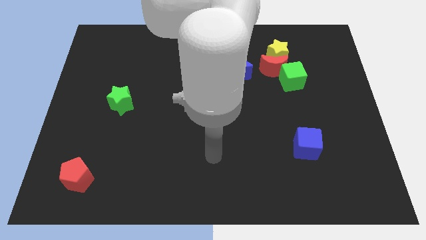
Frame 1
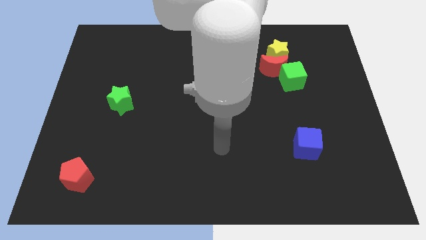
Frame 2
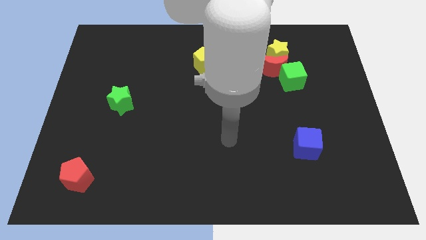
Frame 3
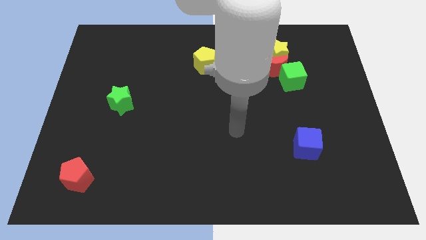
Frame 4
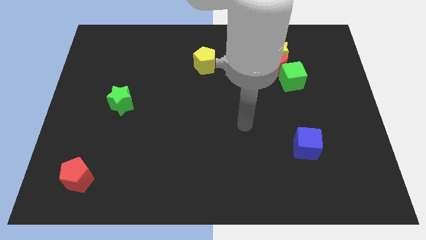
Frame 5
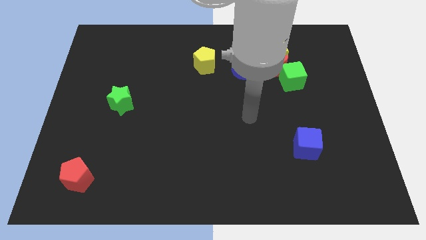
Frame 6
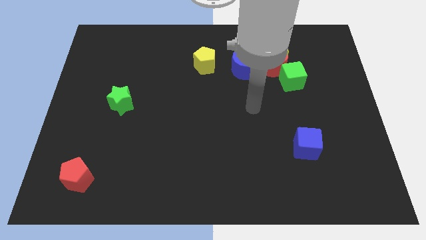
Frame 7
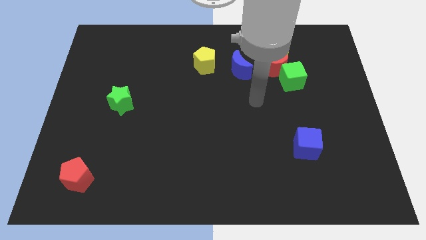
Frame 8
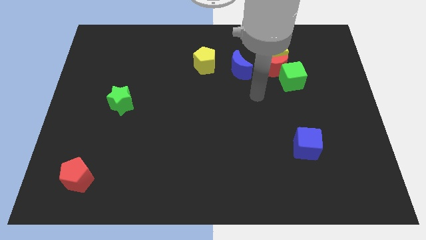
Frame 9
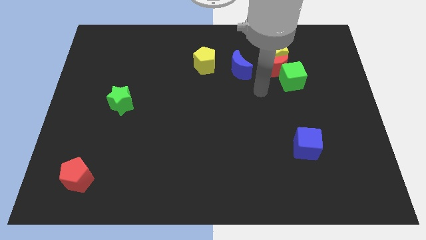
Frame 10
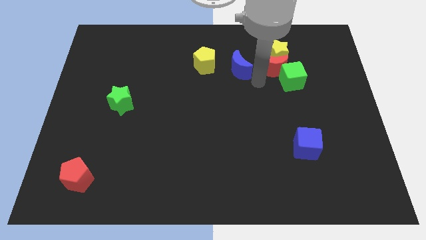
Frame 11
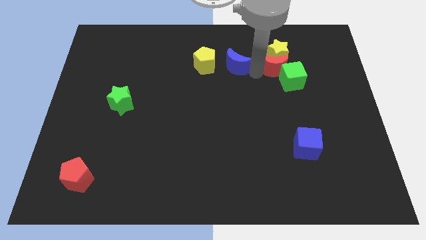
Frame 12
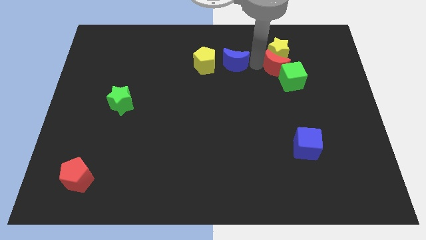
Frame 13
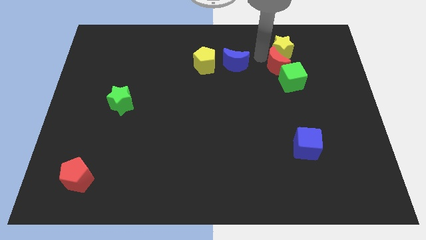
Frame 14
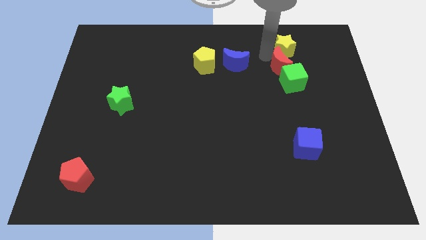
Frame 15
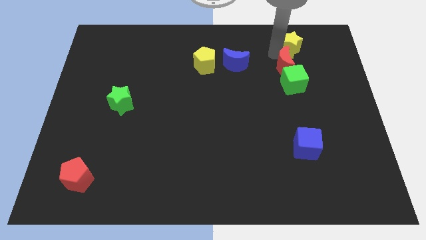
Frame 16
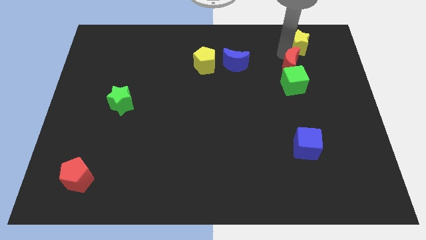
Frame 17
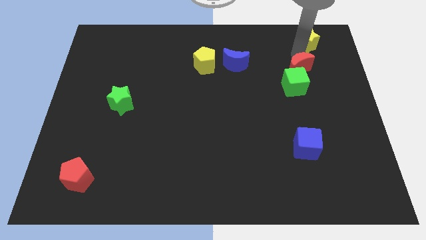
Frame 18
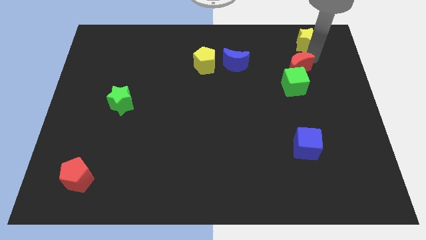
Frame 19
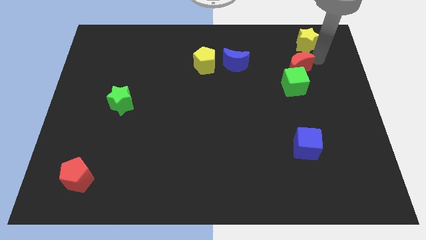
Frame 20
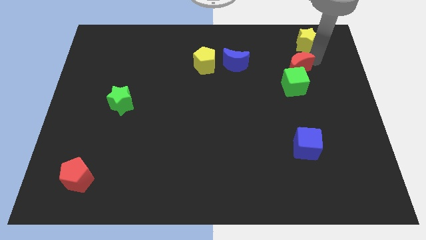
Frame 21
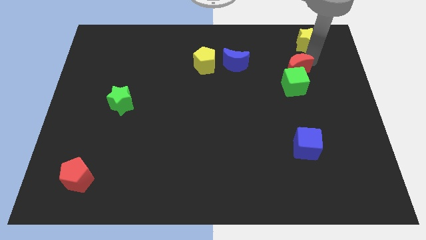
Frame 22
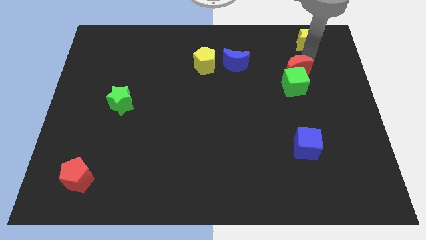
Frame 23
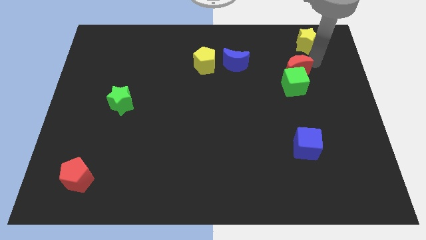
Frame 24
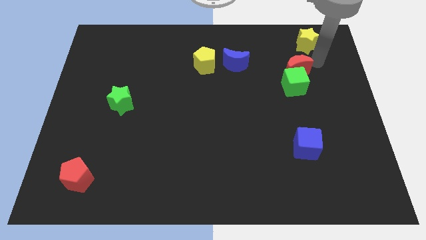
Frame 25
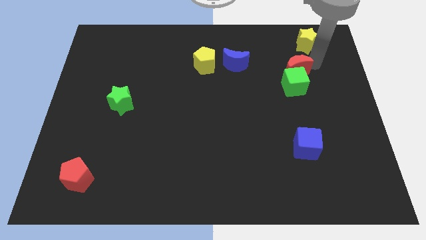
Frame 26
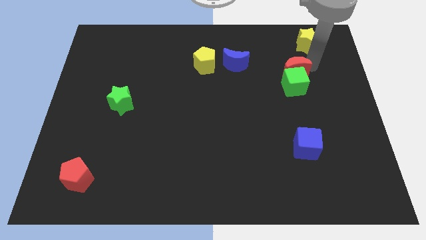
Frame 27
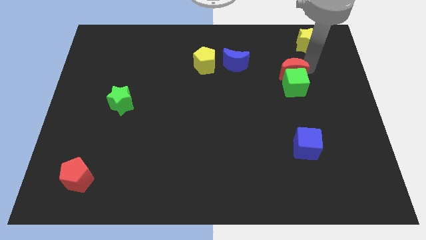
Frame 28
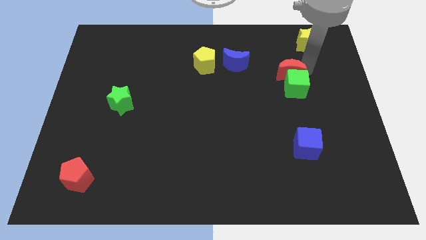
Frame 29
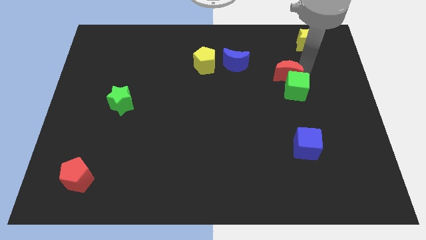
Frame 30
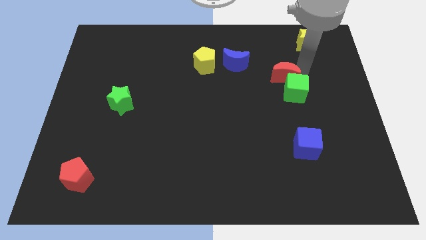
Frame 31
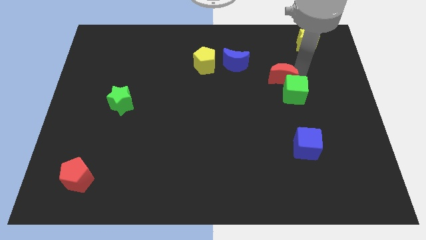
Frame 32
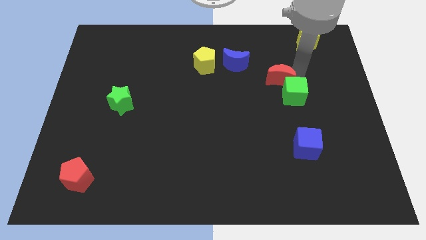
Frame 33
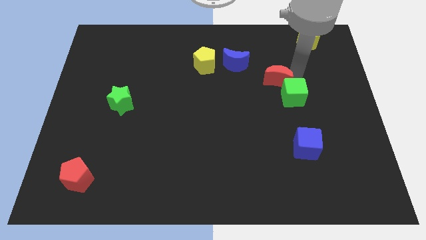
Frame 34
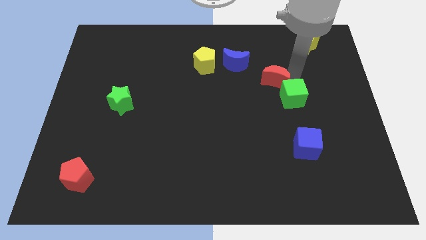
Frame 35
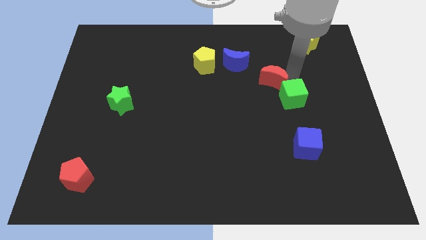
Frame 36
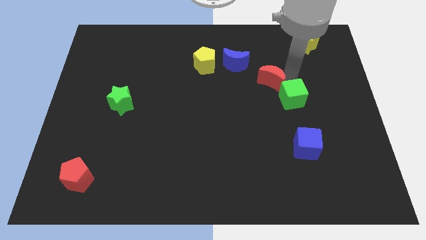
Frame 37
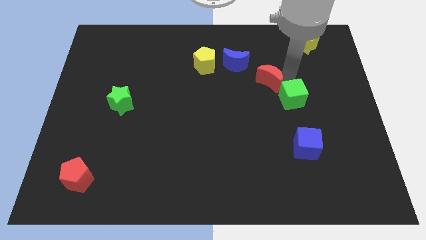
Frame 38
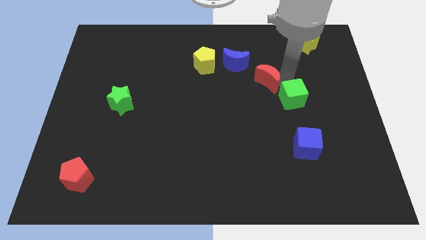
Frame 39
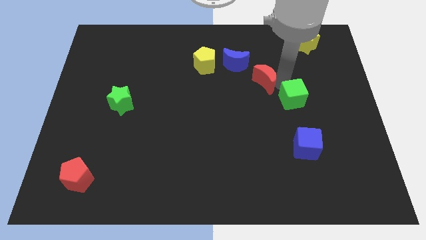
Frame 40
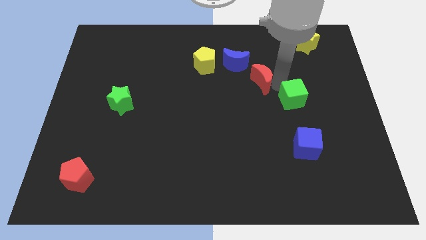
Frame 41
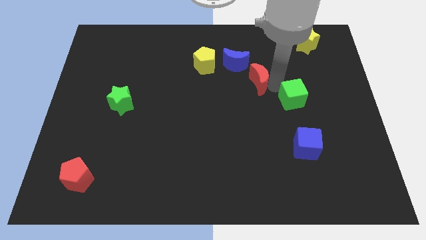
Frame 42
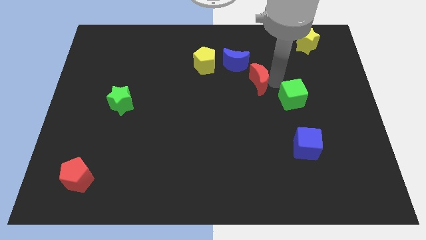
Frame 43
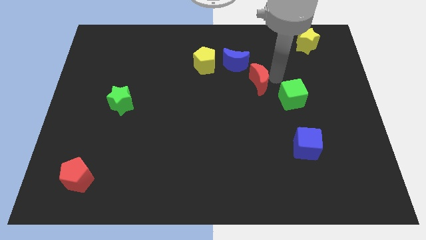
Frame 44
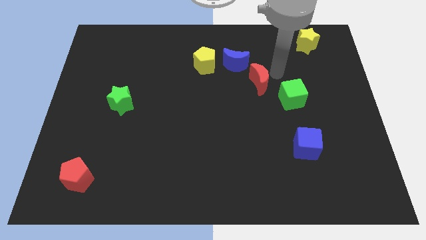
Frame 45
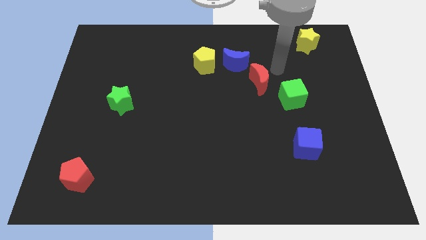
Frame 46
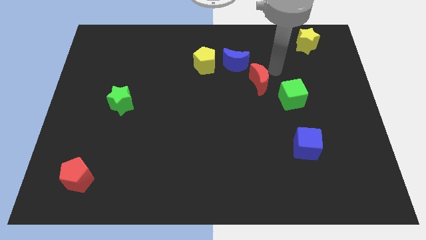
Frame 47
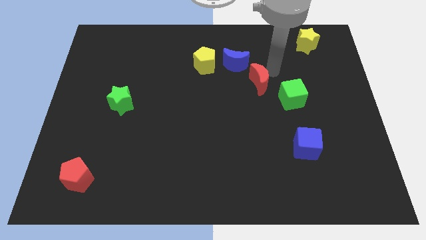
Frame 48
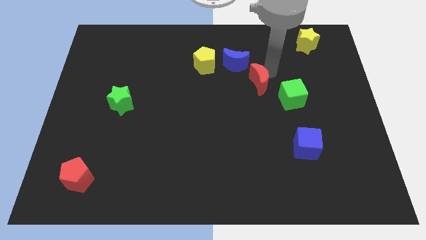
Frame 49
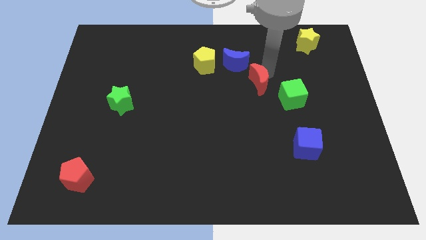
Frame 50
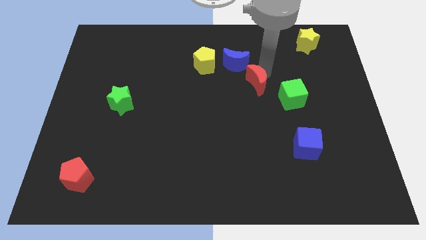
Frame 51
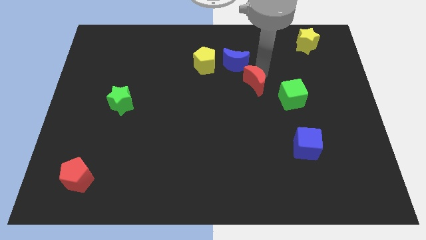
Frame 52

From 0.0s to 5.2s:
slide the red moon a little bit downwards and then to the left

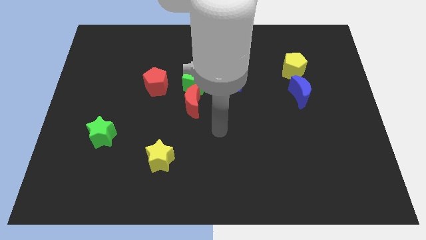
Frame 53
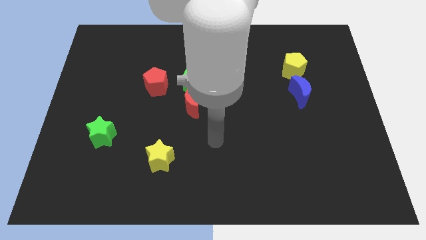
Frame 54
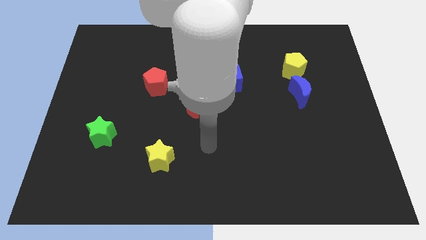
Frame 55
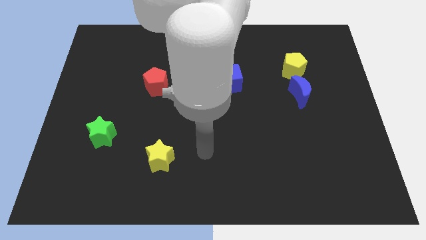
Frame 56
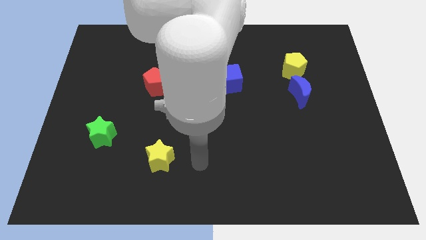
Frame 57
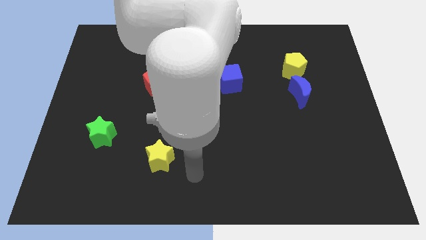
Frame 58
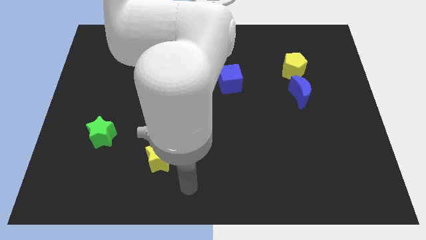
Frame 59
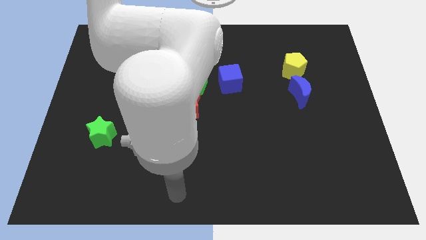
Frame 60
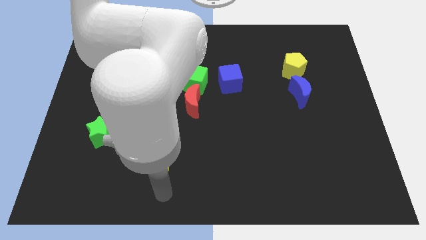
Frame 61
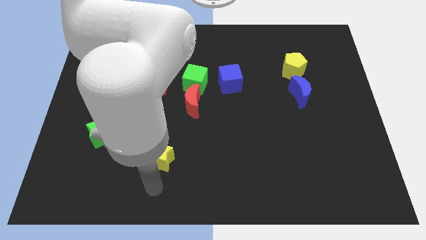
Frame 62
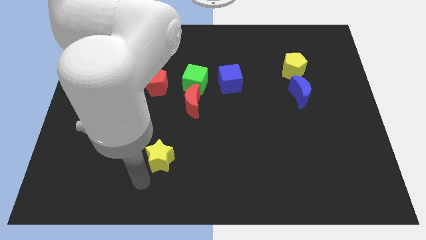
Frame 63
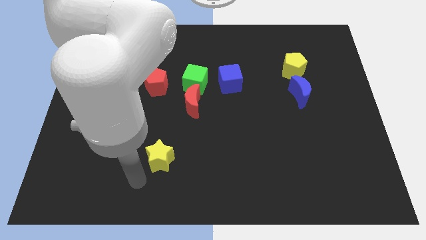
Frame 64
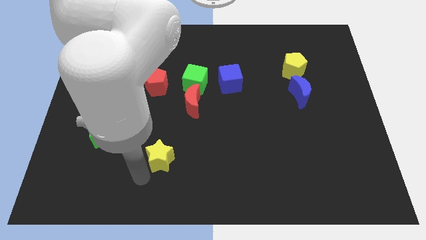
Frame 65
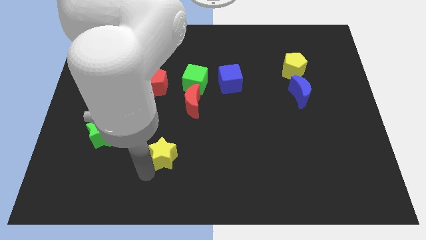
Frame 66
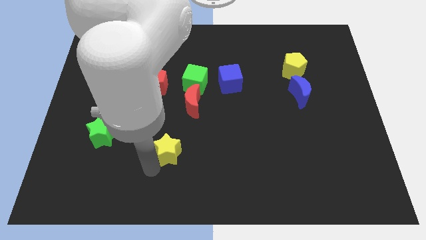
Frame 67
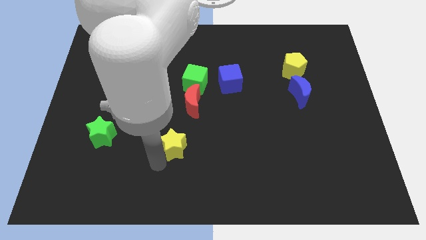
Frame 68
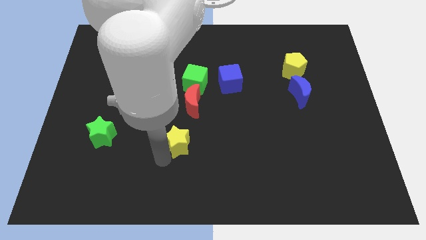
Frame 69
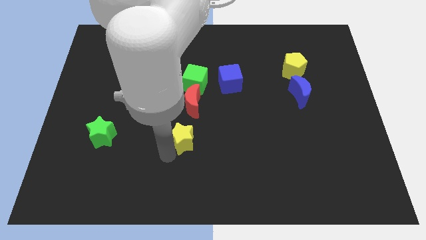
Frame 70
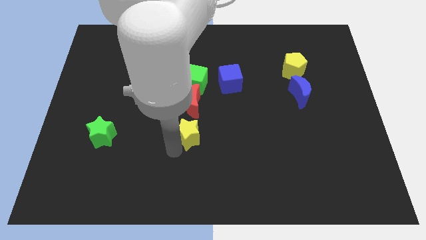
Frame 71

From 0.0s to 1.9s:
move the yellow star a little diagonally upwards and to the right

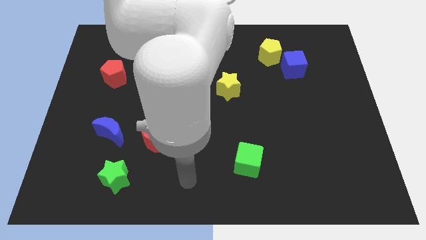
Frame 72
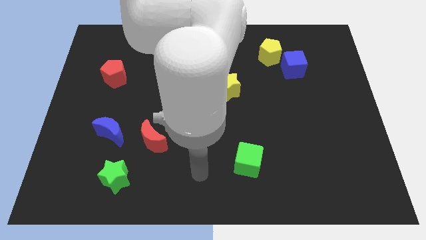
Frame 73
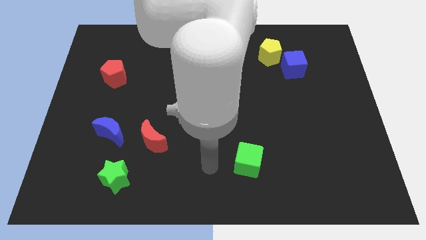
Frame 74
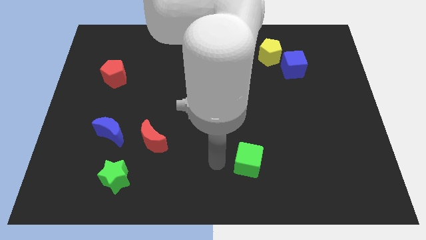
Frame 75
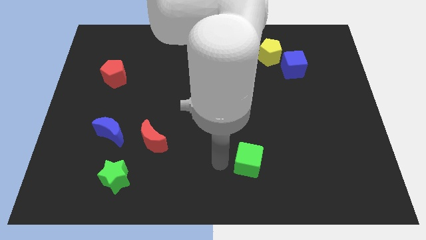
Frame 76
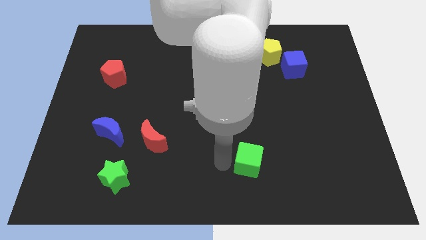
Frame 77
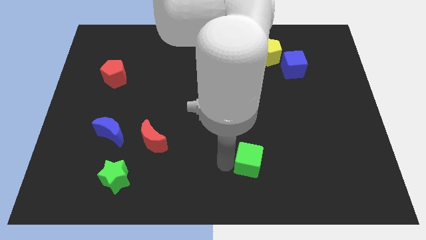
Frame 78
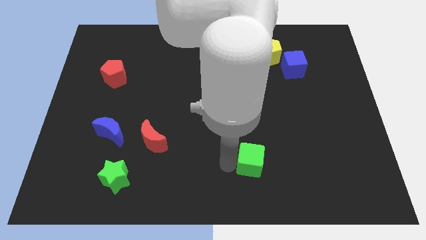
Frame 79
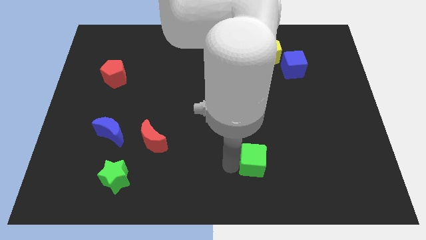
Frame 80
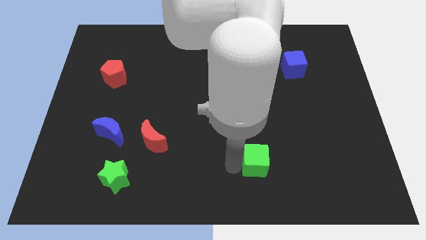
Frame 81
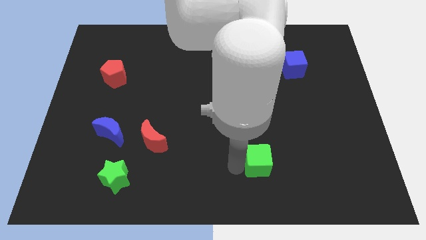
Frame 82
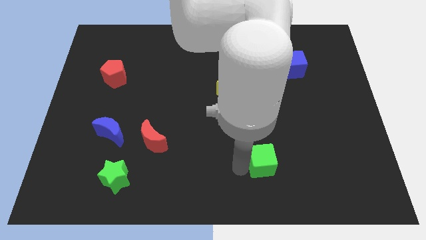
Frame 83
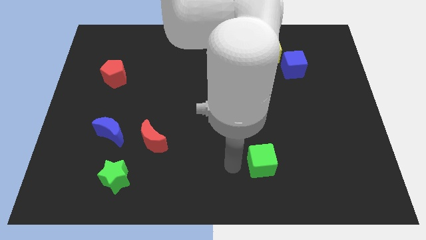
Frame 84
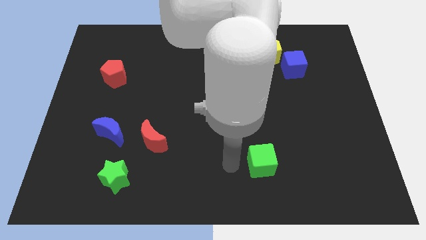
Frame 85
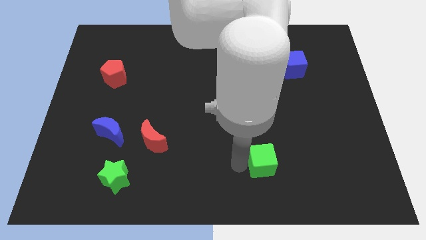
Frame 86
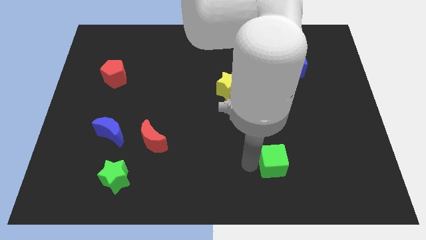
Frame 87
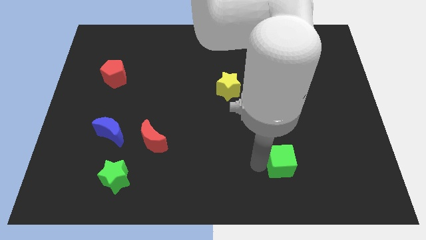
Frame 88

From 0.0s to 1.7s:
slightly move the green cube to the right
